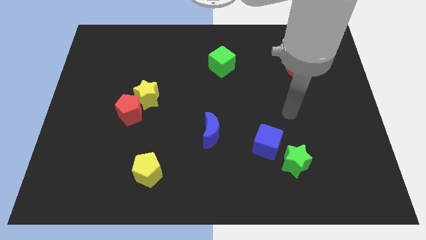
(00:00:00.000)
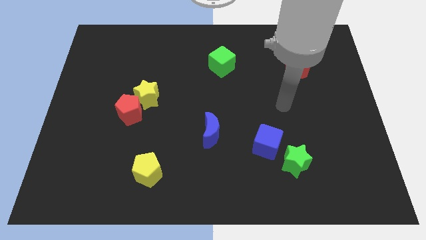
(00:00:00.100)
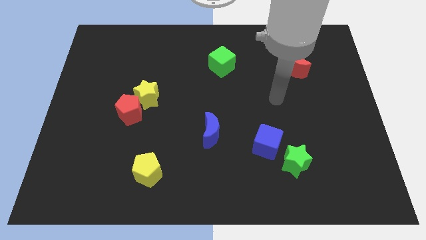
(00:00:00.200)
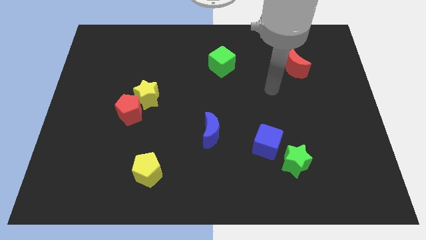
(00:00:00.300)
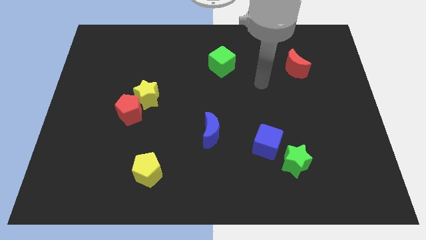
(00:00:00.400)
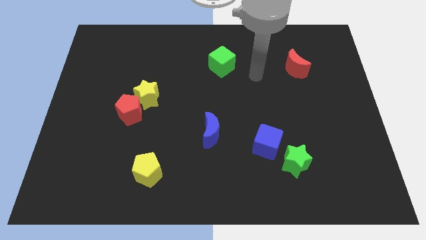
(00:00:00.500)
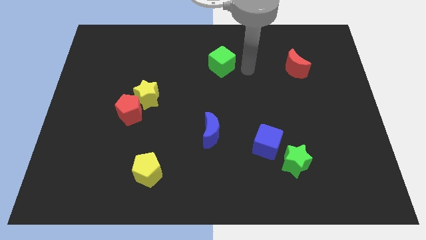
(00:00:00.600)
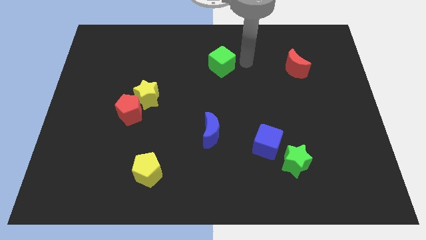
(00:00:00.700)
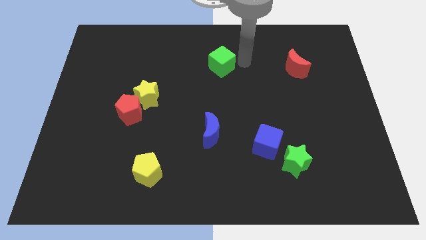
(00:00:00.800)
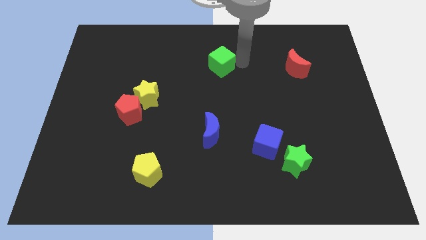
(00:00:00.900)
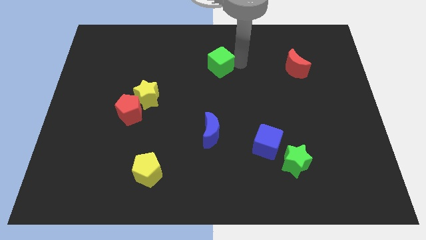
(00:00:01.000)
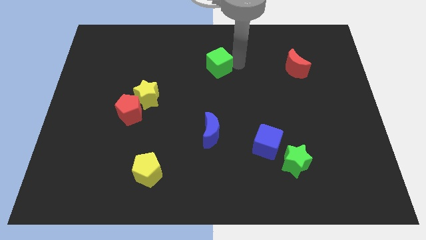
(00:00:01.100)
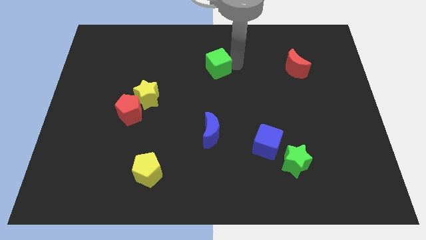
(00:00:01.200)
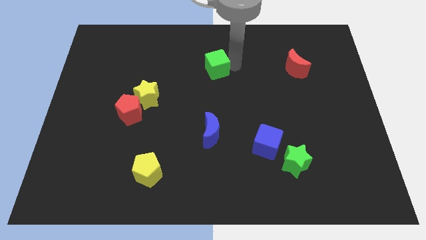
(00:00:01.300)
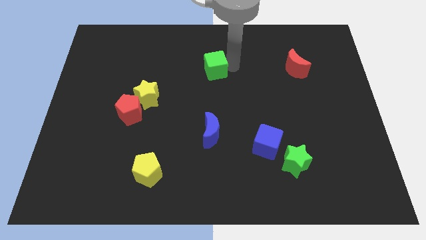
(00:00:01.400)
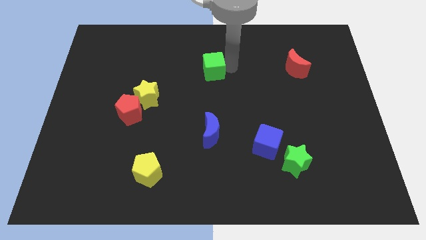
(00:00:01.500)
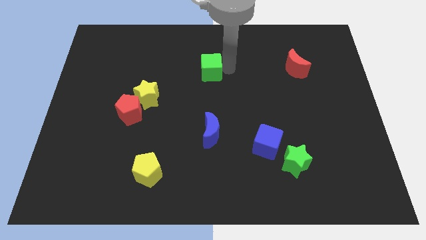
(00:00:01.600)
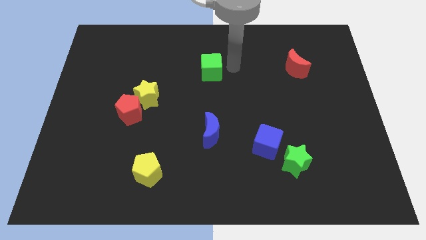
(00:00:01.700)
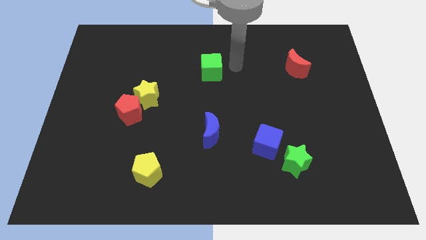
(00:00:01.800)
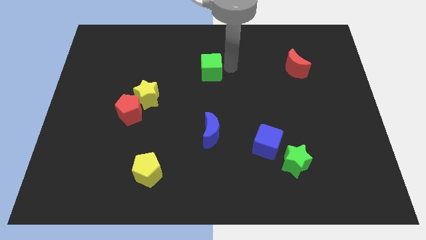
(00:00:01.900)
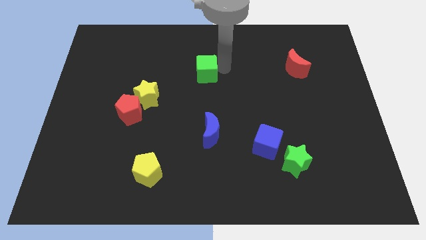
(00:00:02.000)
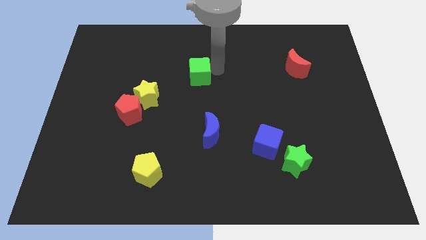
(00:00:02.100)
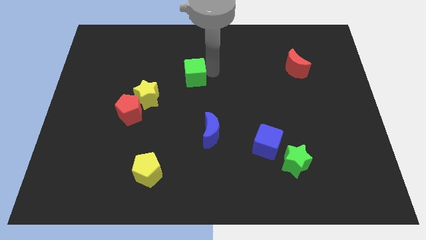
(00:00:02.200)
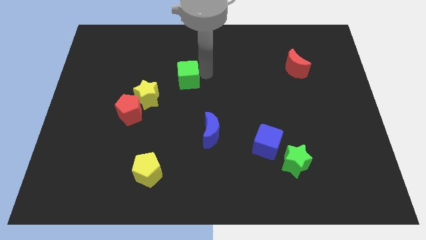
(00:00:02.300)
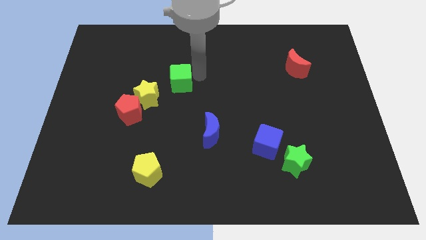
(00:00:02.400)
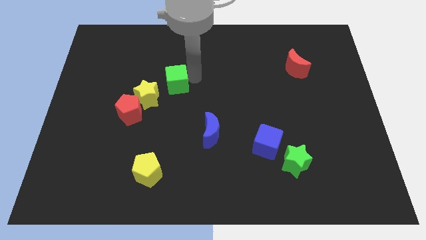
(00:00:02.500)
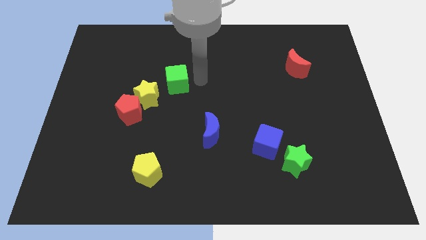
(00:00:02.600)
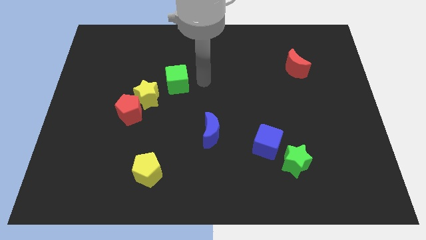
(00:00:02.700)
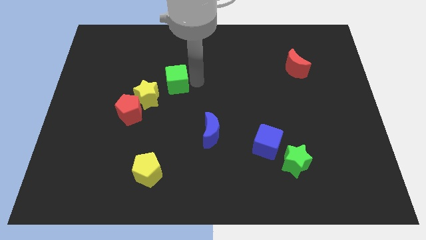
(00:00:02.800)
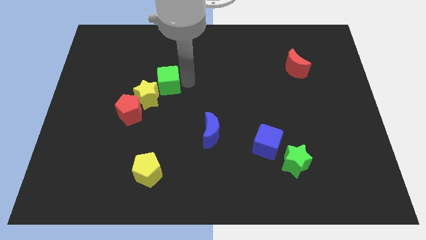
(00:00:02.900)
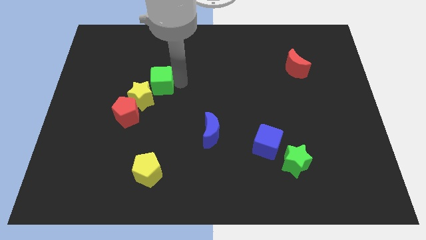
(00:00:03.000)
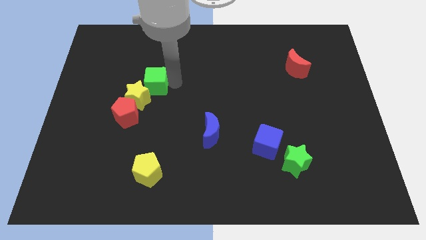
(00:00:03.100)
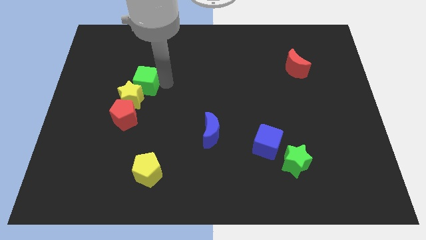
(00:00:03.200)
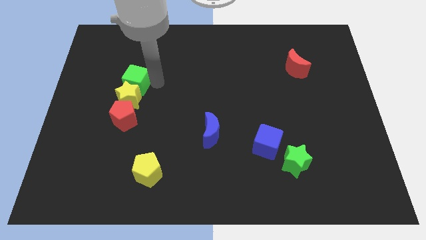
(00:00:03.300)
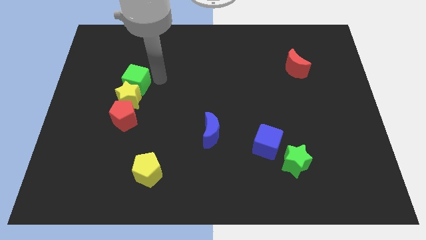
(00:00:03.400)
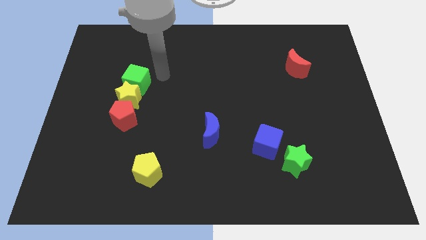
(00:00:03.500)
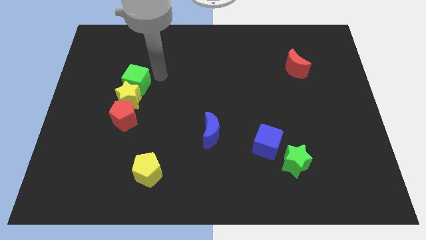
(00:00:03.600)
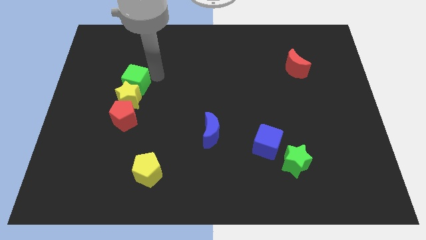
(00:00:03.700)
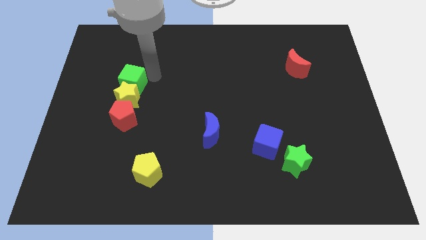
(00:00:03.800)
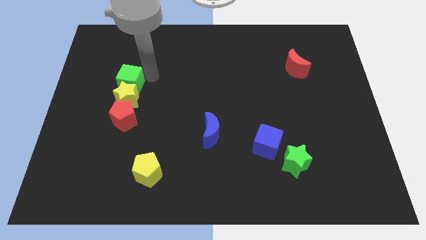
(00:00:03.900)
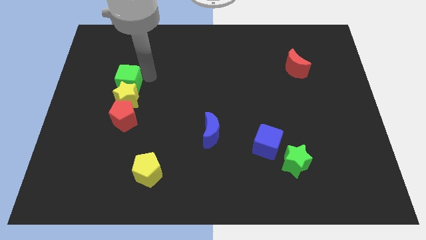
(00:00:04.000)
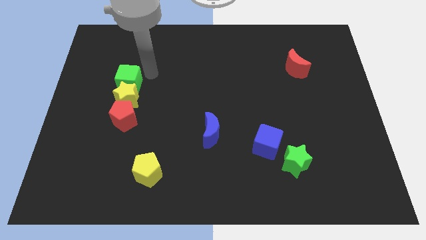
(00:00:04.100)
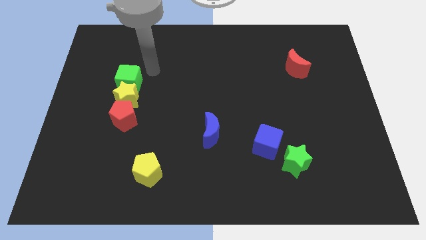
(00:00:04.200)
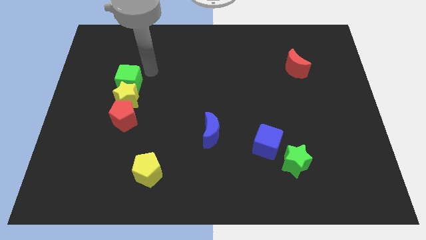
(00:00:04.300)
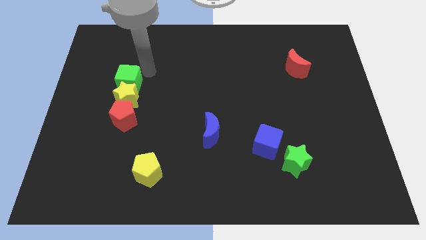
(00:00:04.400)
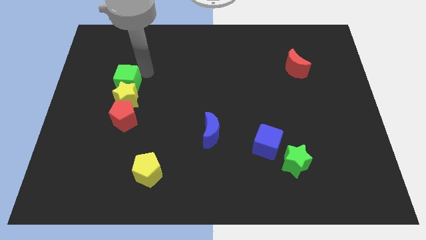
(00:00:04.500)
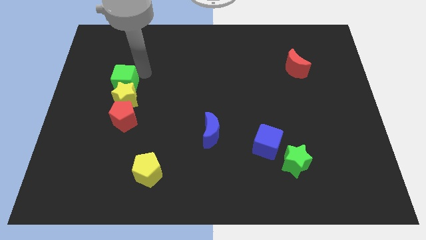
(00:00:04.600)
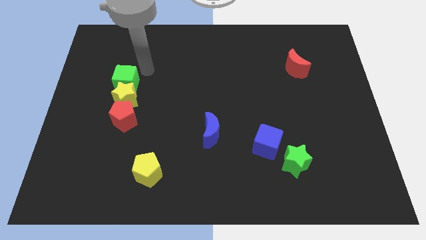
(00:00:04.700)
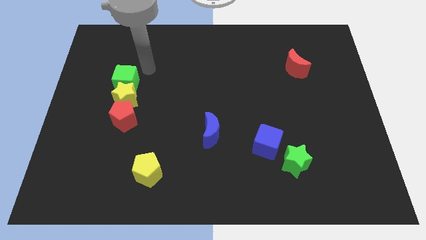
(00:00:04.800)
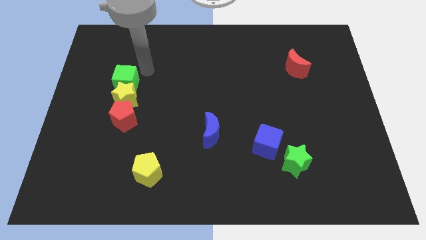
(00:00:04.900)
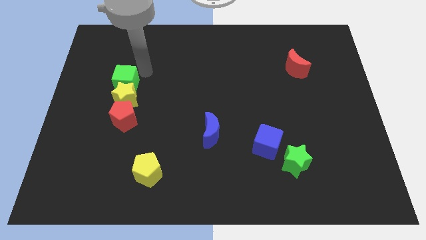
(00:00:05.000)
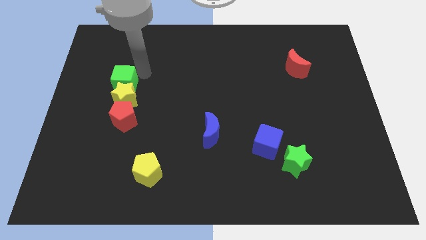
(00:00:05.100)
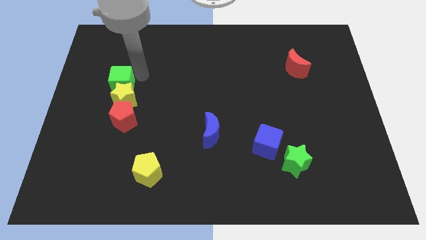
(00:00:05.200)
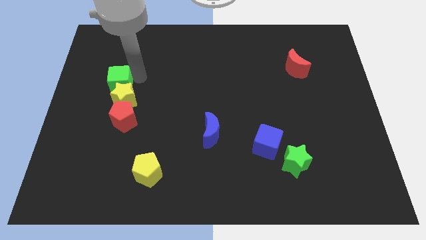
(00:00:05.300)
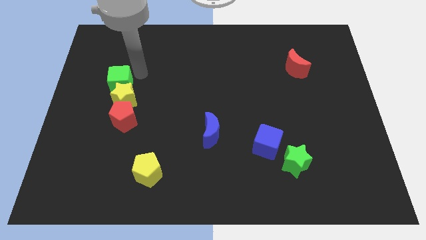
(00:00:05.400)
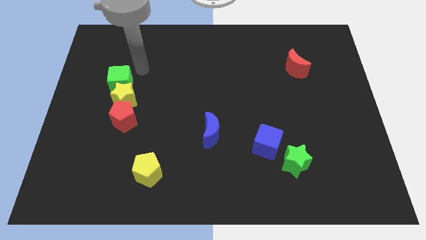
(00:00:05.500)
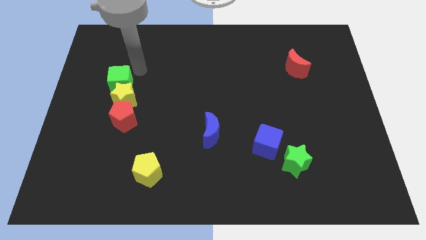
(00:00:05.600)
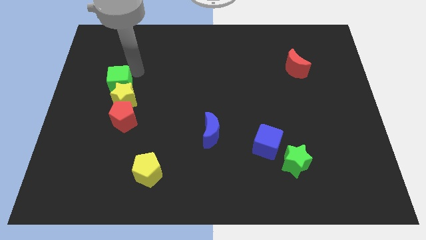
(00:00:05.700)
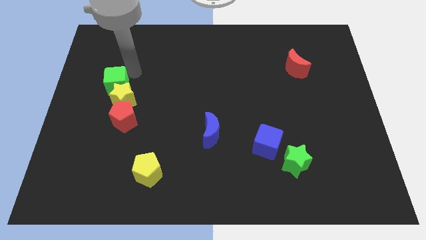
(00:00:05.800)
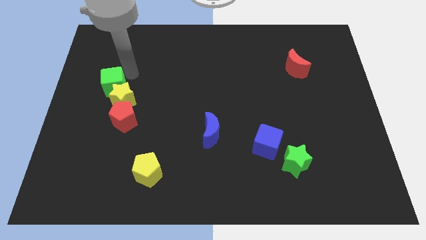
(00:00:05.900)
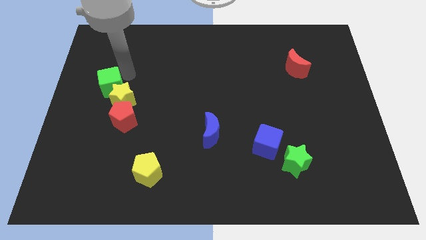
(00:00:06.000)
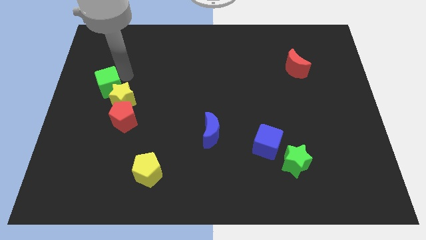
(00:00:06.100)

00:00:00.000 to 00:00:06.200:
put the green cube to the center left

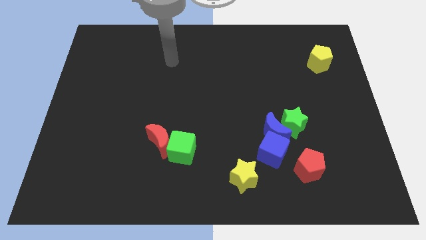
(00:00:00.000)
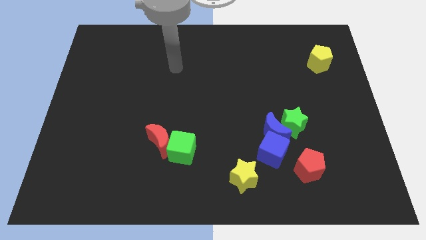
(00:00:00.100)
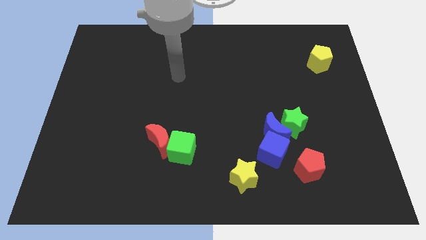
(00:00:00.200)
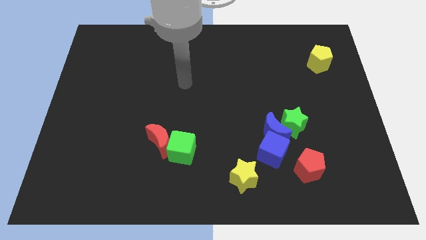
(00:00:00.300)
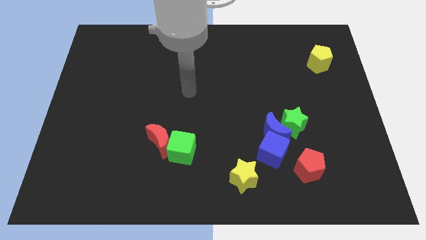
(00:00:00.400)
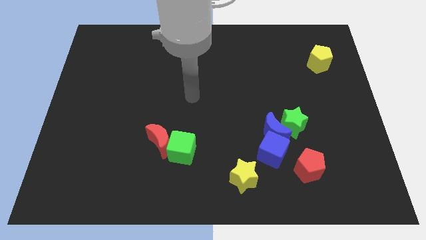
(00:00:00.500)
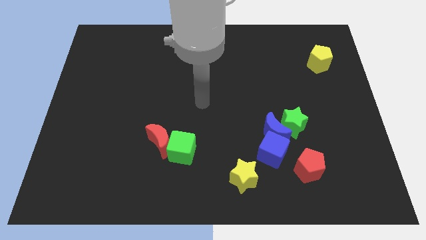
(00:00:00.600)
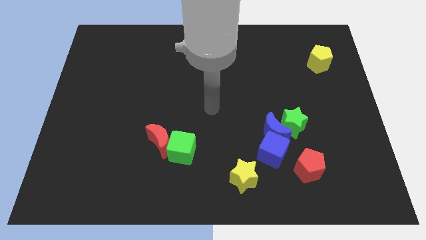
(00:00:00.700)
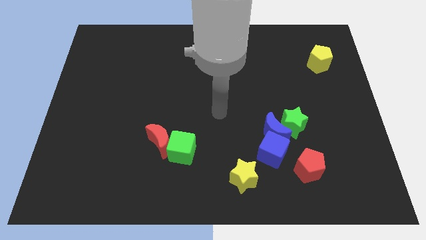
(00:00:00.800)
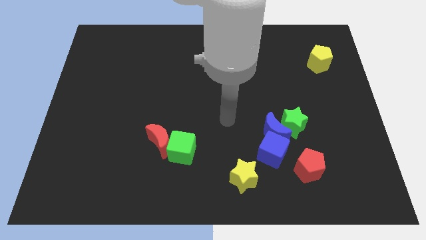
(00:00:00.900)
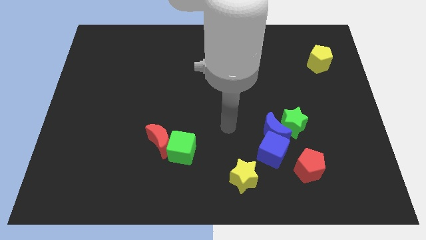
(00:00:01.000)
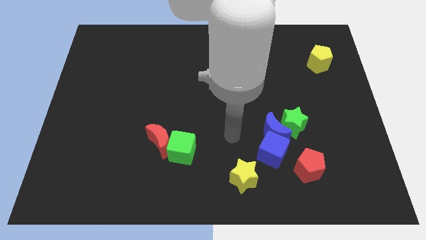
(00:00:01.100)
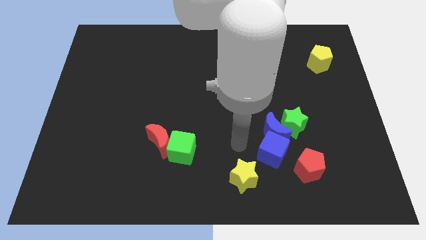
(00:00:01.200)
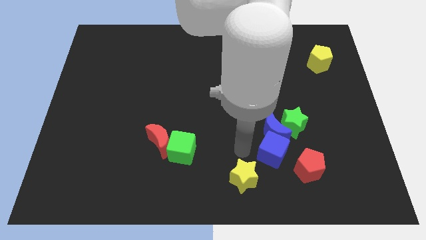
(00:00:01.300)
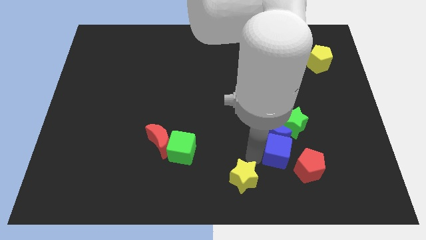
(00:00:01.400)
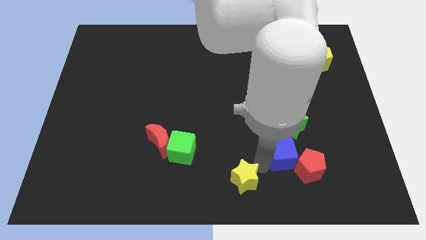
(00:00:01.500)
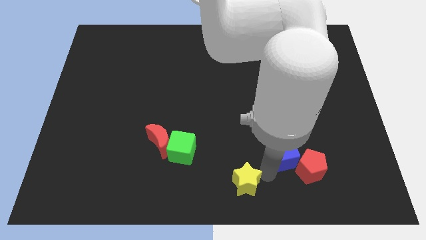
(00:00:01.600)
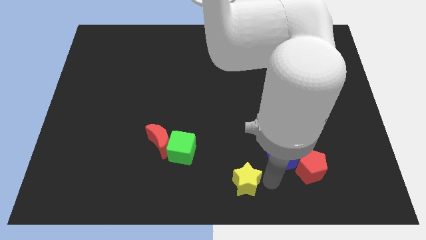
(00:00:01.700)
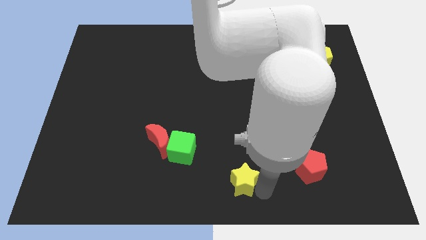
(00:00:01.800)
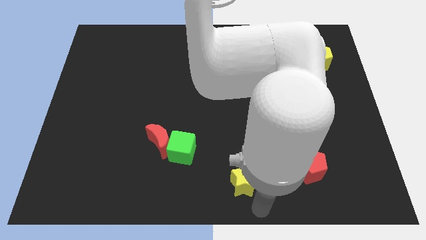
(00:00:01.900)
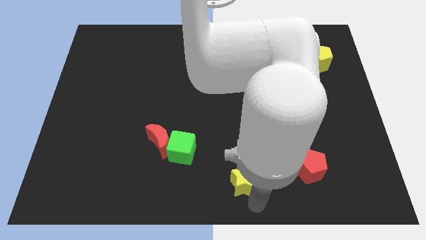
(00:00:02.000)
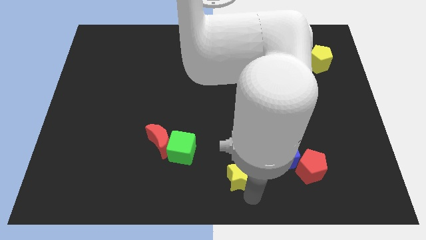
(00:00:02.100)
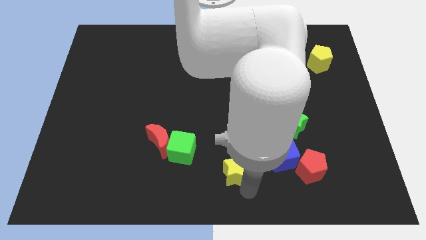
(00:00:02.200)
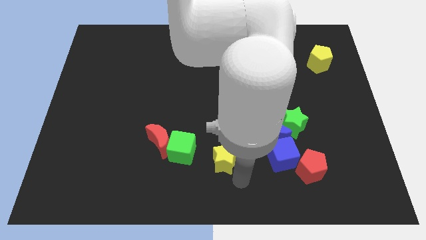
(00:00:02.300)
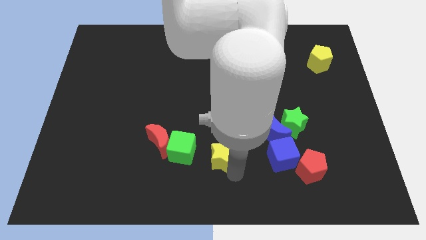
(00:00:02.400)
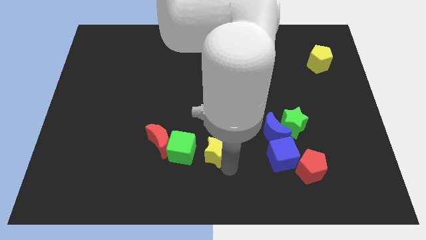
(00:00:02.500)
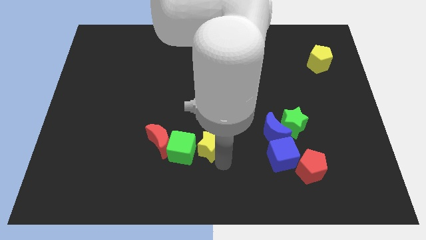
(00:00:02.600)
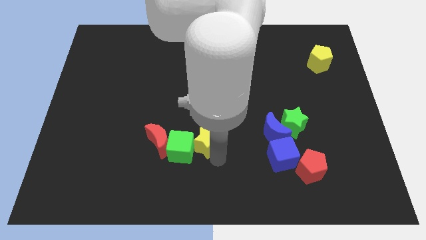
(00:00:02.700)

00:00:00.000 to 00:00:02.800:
put the yellow star to the middle of the board
